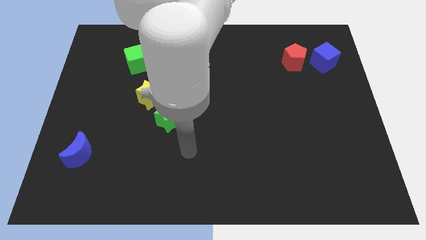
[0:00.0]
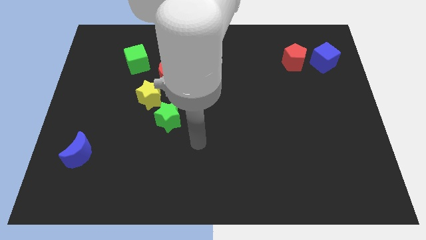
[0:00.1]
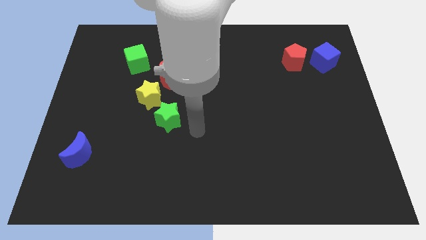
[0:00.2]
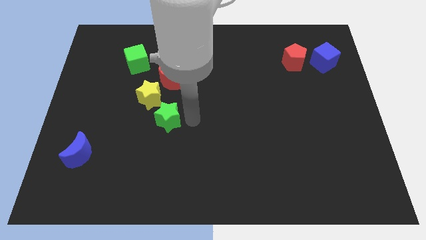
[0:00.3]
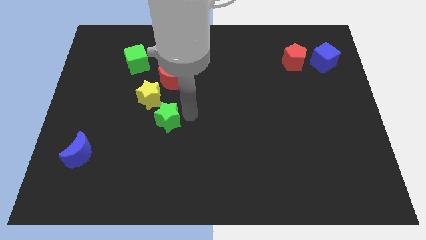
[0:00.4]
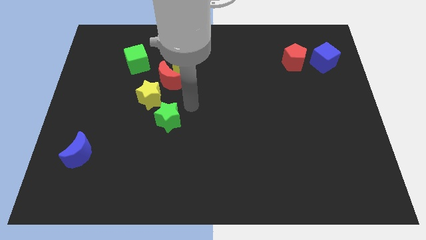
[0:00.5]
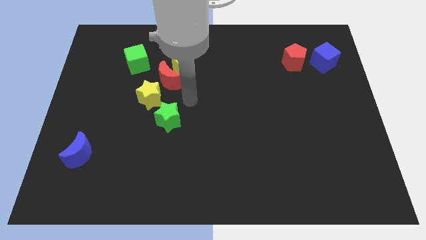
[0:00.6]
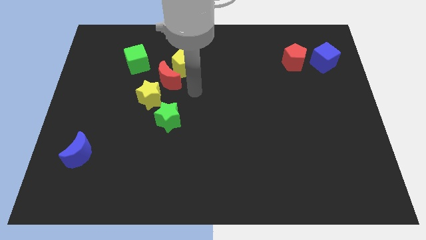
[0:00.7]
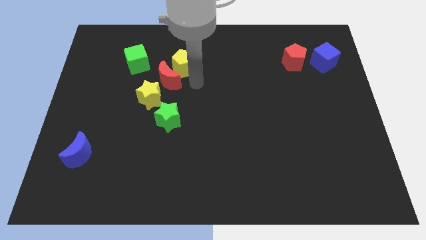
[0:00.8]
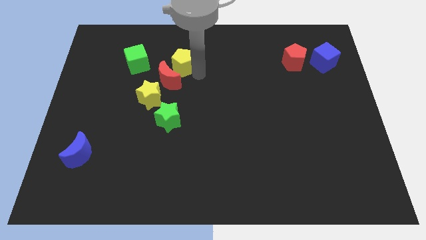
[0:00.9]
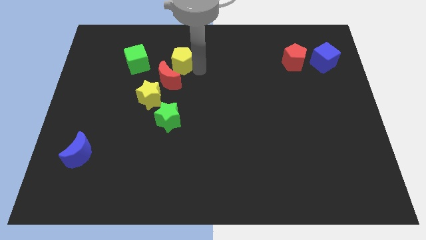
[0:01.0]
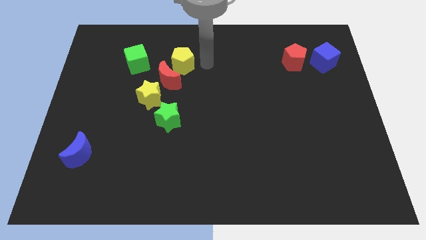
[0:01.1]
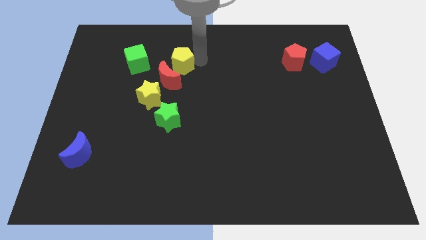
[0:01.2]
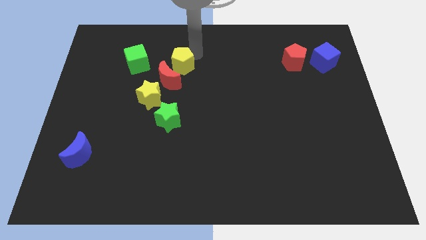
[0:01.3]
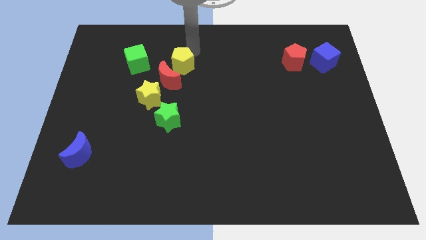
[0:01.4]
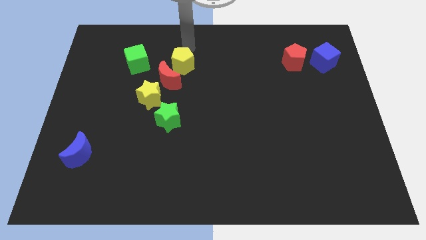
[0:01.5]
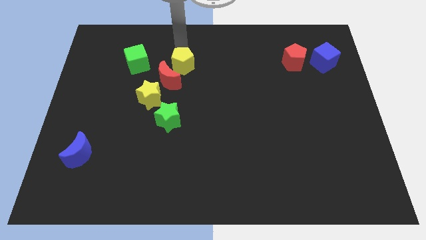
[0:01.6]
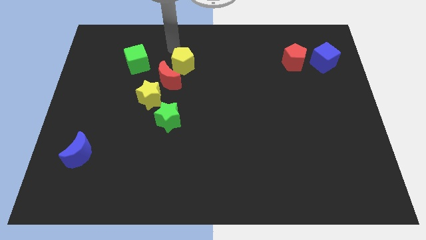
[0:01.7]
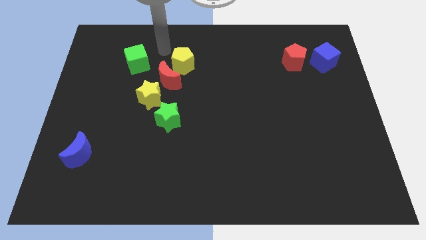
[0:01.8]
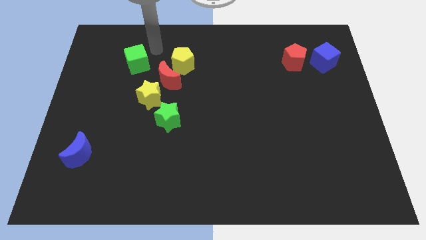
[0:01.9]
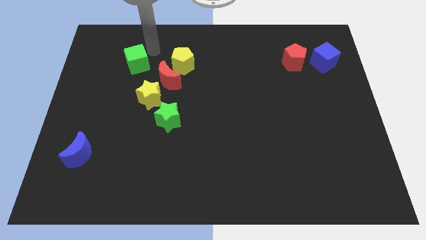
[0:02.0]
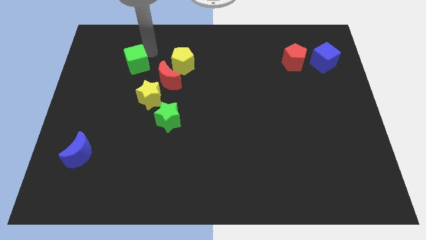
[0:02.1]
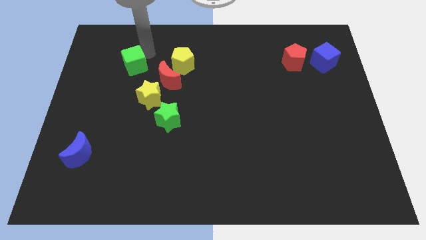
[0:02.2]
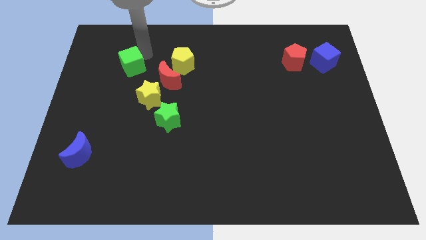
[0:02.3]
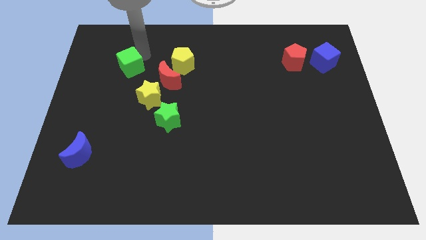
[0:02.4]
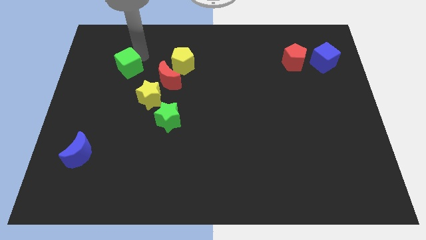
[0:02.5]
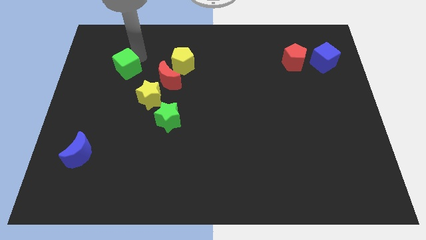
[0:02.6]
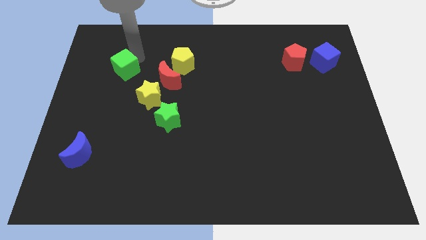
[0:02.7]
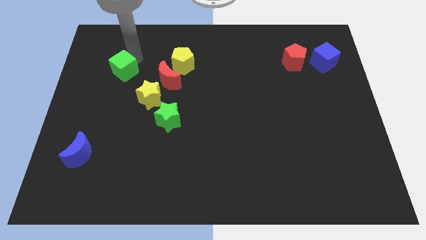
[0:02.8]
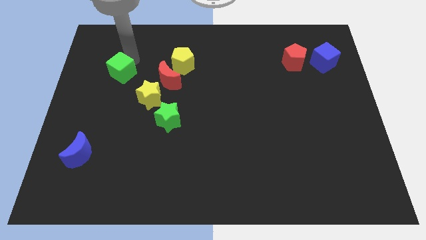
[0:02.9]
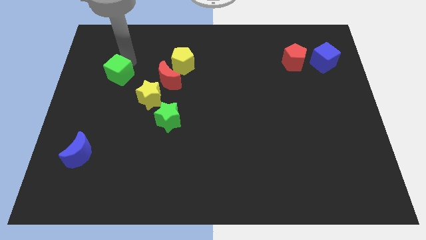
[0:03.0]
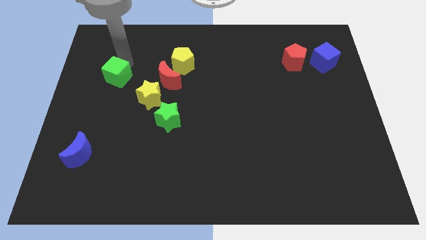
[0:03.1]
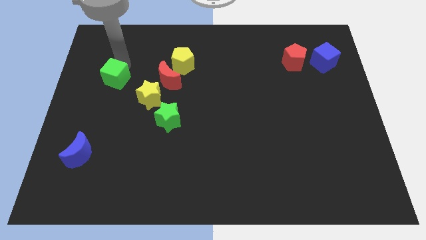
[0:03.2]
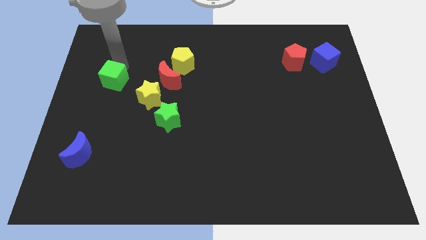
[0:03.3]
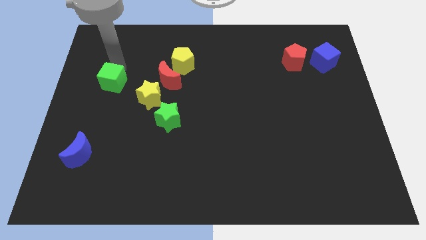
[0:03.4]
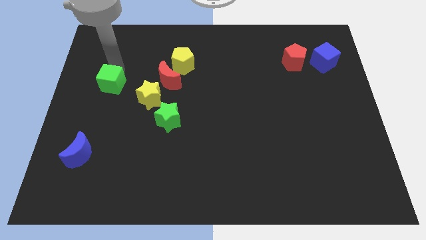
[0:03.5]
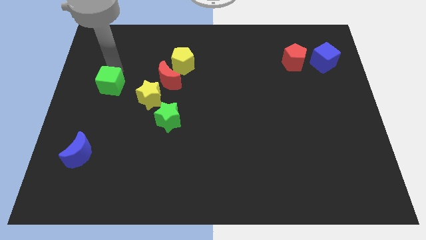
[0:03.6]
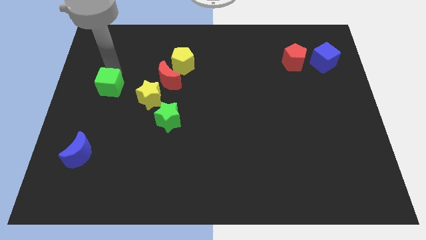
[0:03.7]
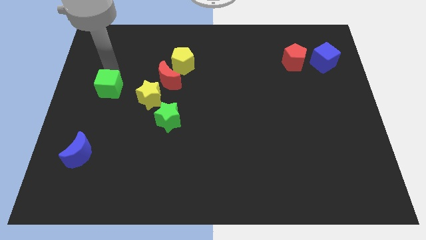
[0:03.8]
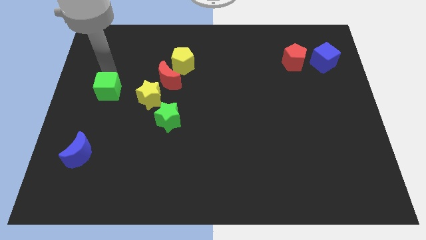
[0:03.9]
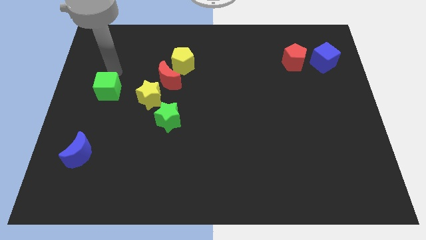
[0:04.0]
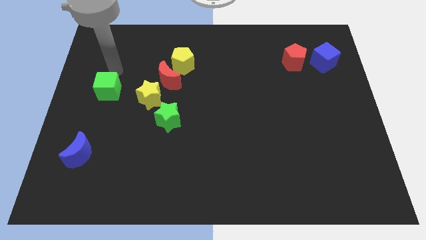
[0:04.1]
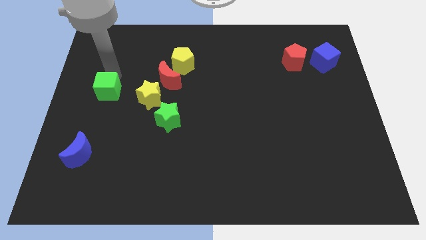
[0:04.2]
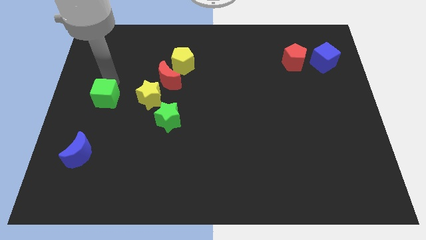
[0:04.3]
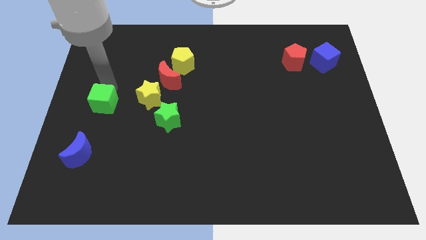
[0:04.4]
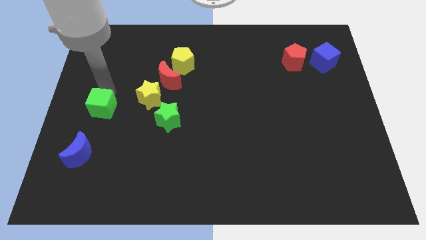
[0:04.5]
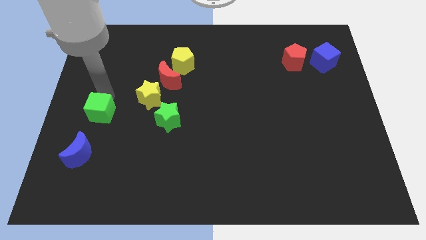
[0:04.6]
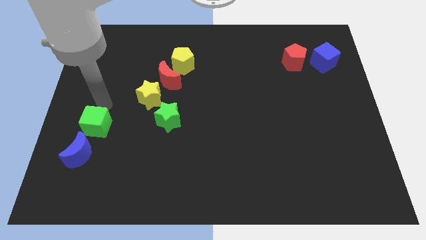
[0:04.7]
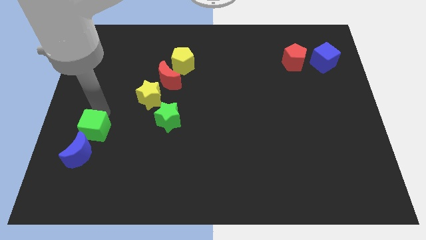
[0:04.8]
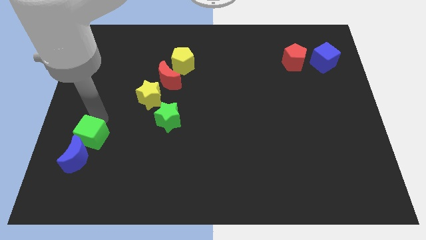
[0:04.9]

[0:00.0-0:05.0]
push the green cube to the blue moon

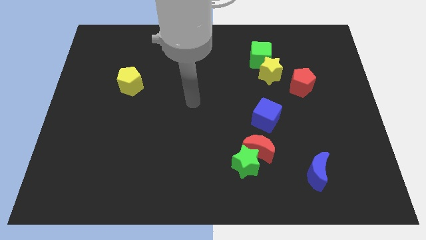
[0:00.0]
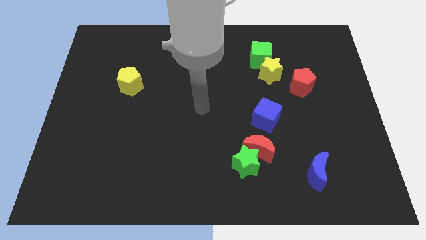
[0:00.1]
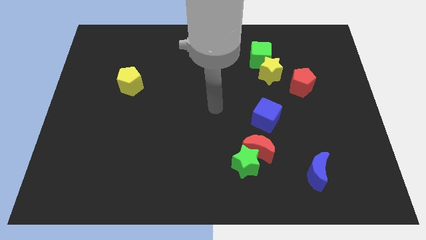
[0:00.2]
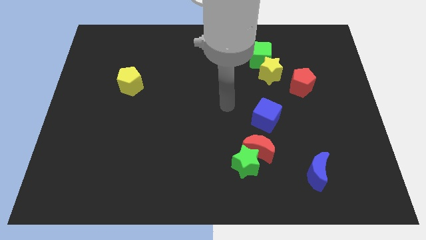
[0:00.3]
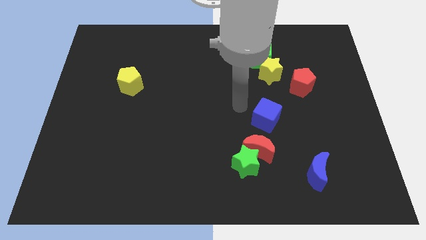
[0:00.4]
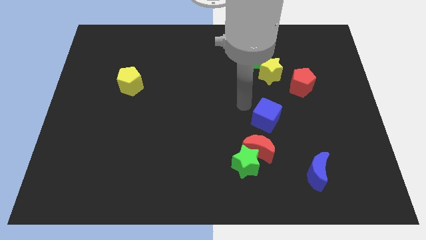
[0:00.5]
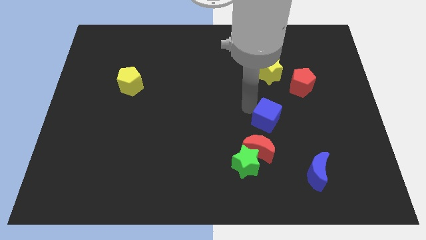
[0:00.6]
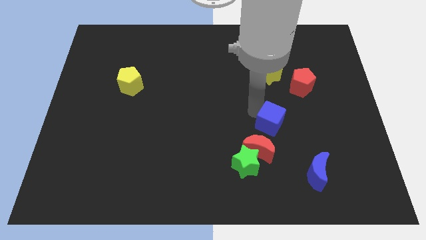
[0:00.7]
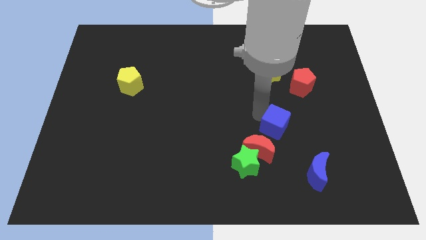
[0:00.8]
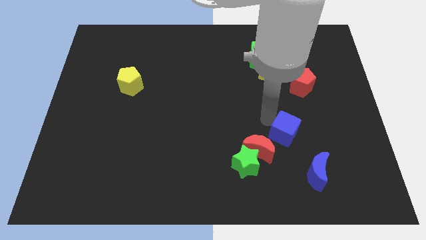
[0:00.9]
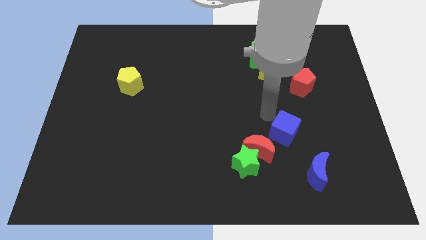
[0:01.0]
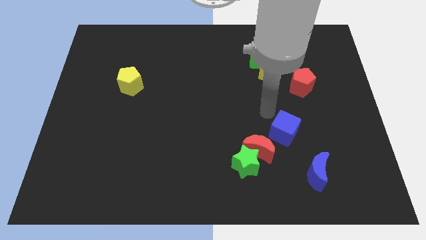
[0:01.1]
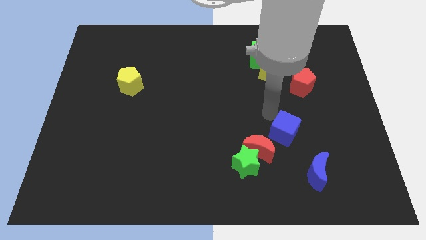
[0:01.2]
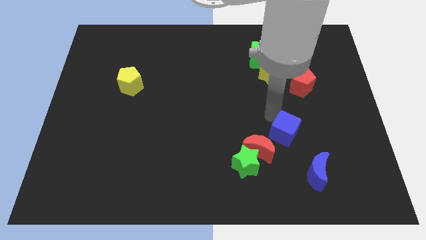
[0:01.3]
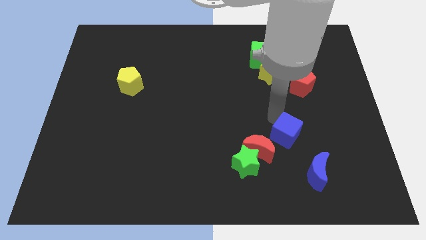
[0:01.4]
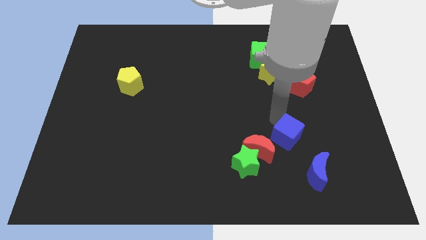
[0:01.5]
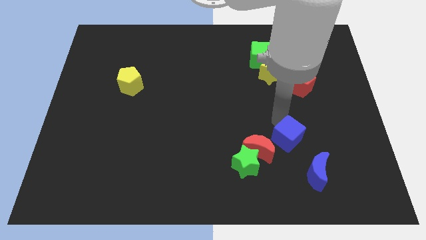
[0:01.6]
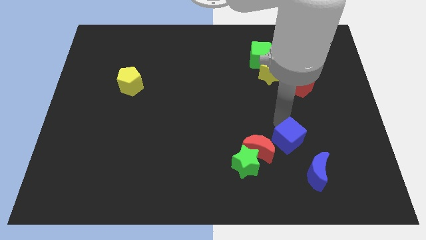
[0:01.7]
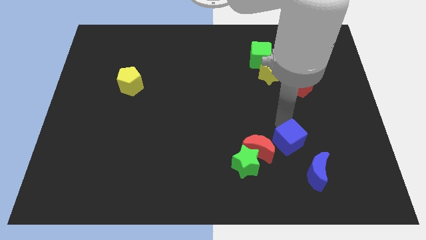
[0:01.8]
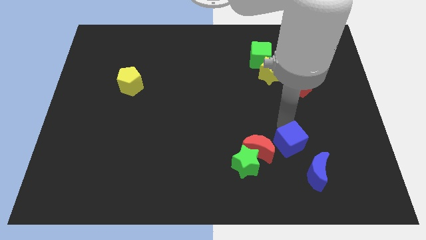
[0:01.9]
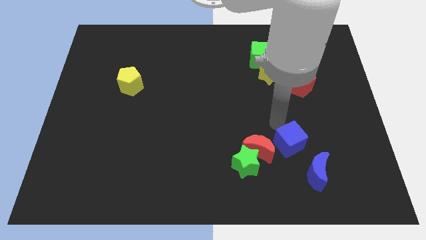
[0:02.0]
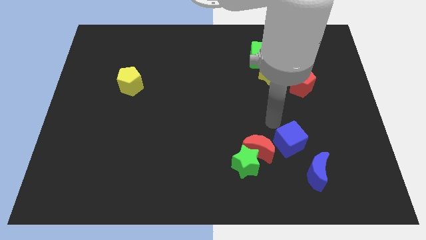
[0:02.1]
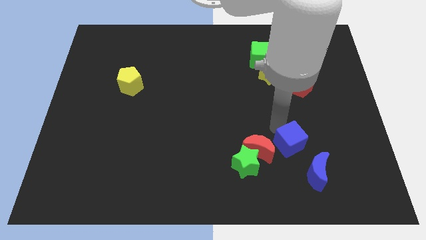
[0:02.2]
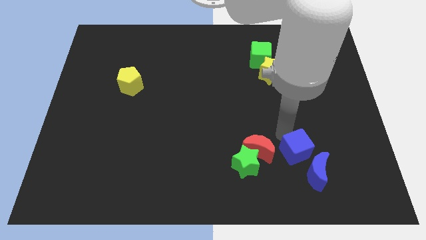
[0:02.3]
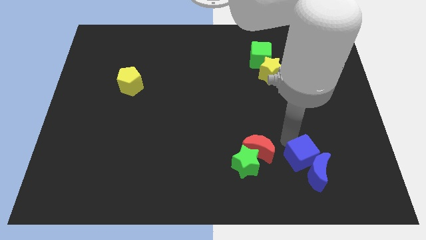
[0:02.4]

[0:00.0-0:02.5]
put the blue cube next to the blue moon

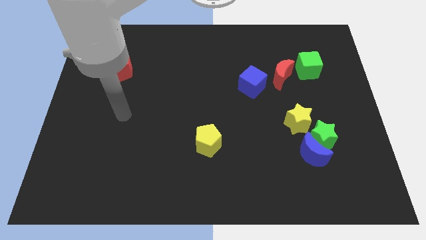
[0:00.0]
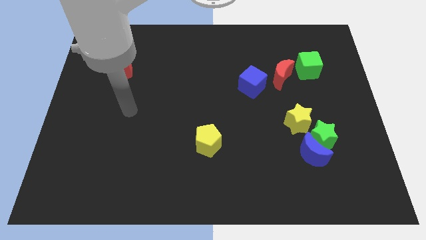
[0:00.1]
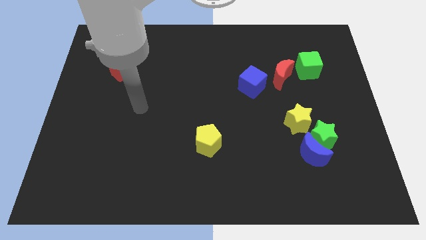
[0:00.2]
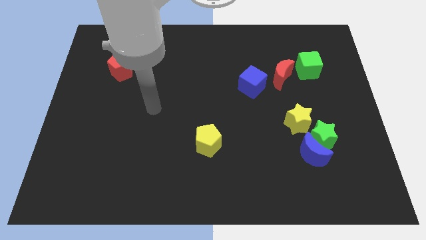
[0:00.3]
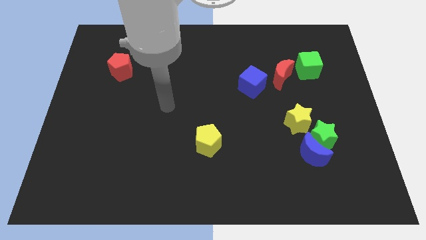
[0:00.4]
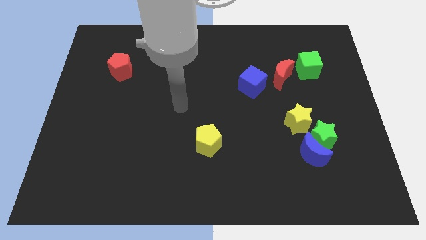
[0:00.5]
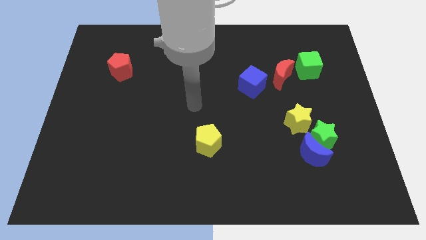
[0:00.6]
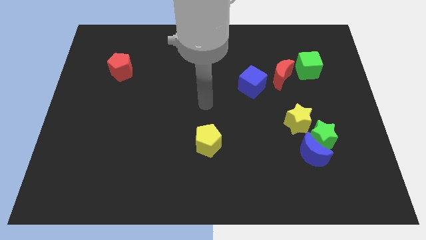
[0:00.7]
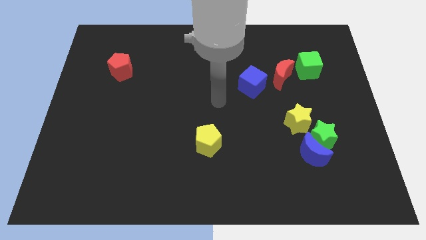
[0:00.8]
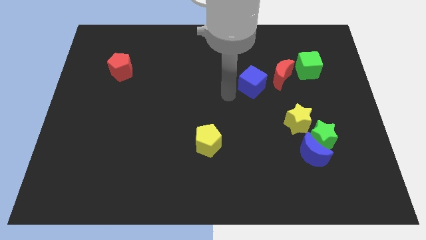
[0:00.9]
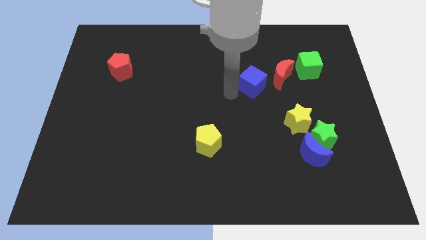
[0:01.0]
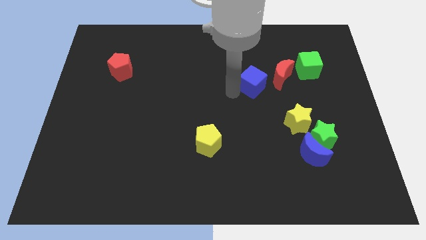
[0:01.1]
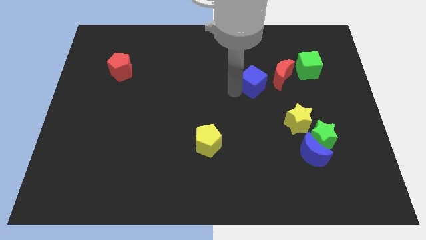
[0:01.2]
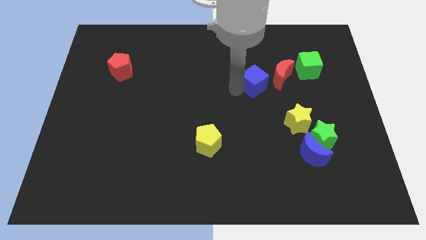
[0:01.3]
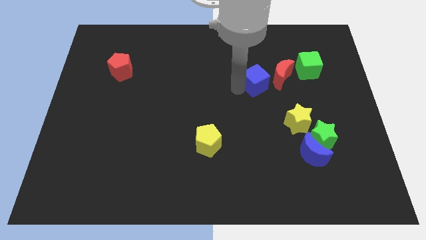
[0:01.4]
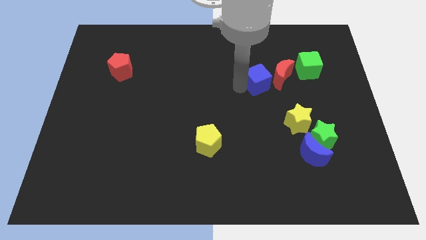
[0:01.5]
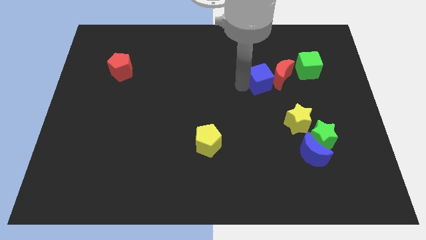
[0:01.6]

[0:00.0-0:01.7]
put the blue cube close to the red moon
